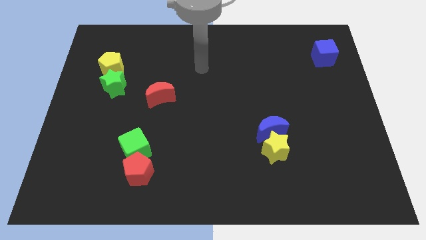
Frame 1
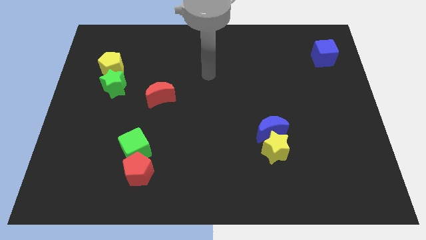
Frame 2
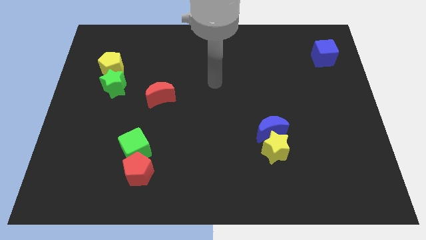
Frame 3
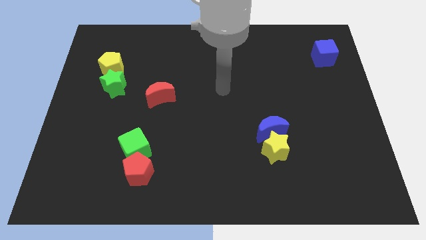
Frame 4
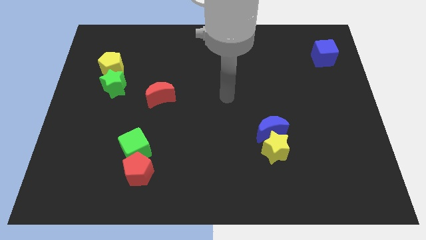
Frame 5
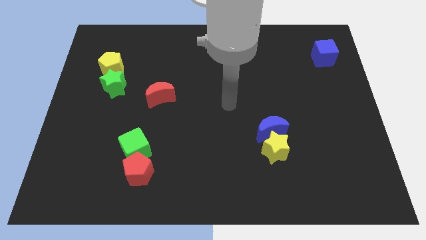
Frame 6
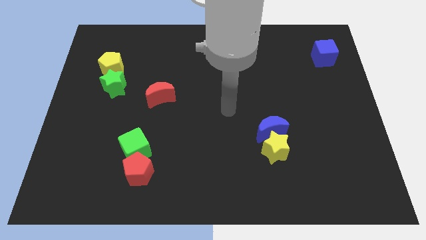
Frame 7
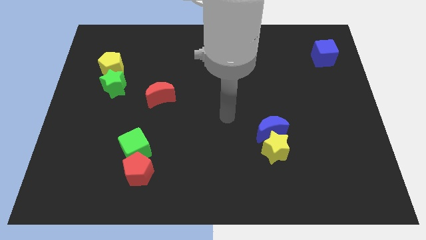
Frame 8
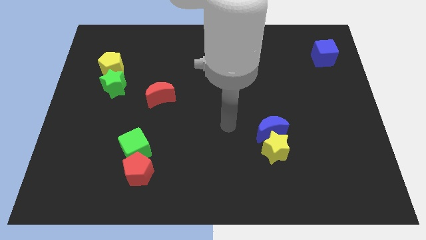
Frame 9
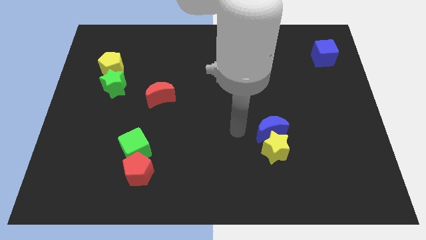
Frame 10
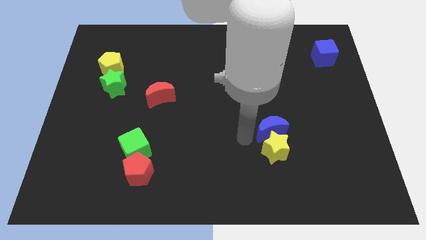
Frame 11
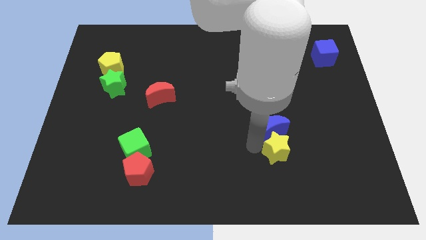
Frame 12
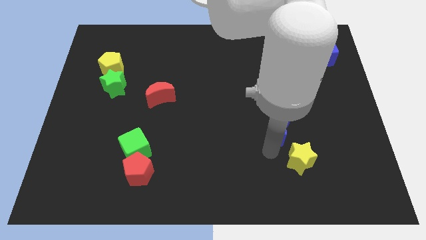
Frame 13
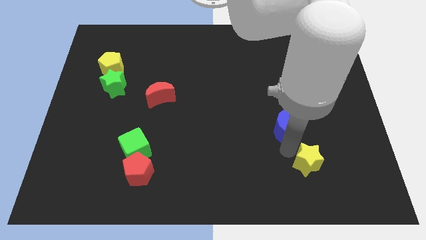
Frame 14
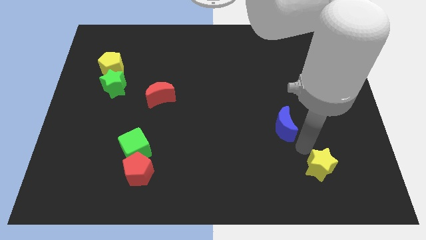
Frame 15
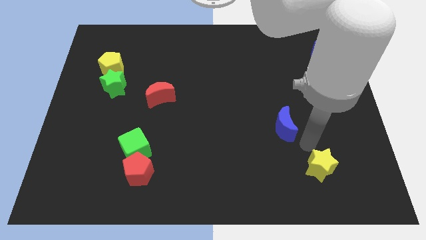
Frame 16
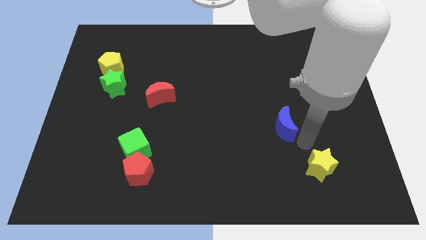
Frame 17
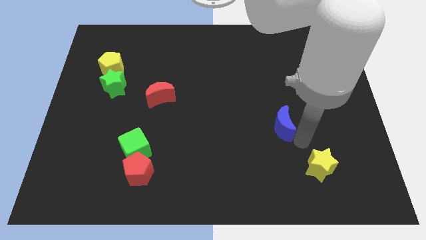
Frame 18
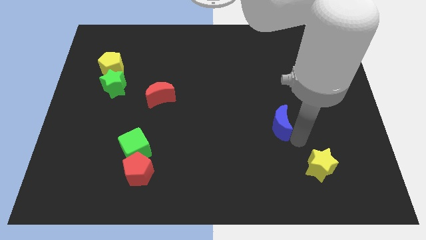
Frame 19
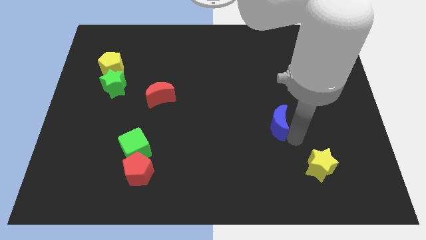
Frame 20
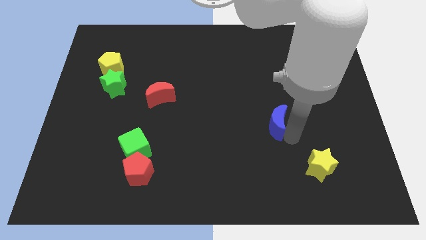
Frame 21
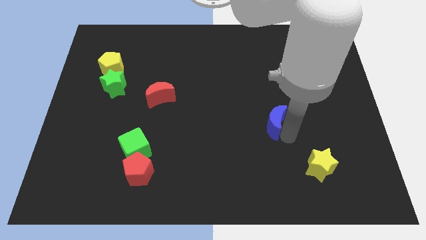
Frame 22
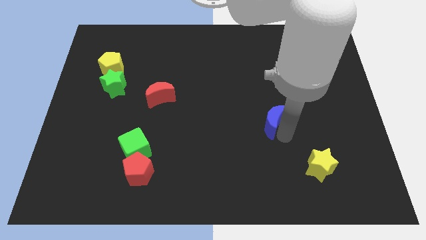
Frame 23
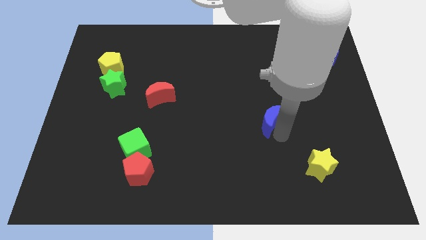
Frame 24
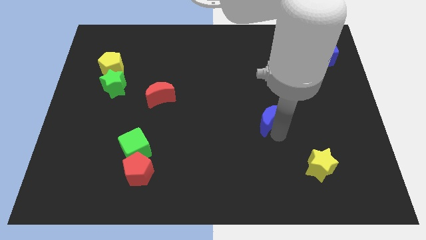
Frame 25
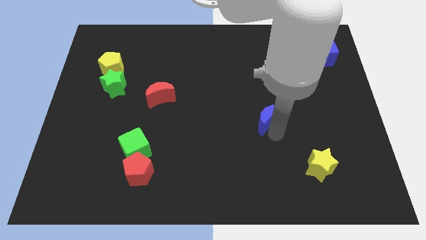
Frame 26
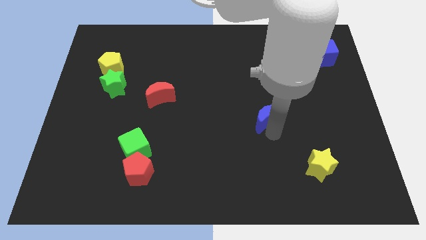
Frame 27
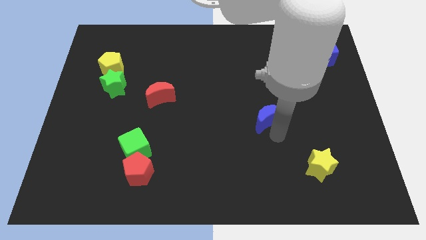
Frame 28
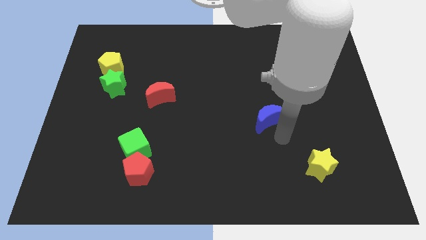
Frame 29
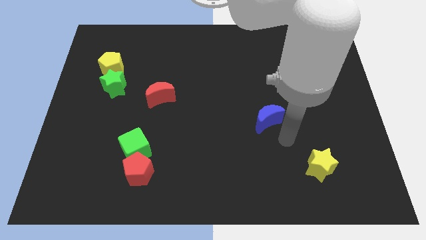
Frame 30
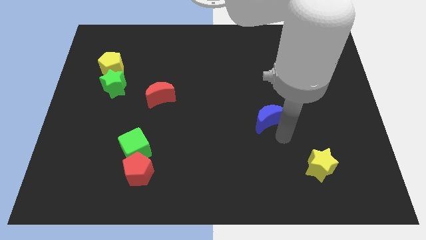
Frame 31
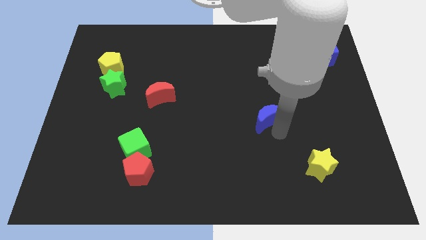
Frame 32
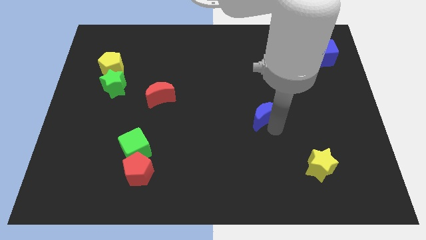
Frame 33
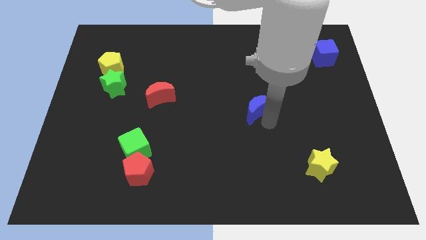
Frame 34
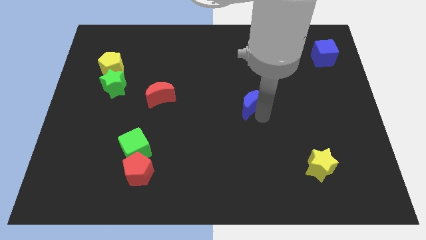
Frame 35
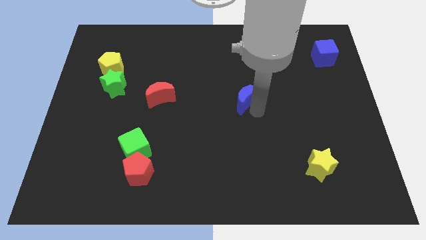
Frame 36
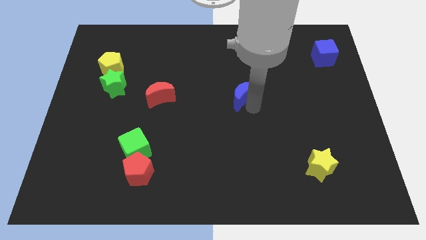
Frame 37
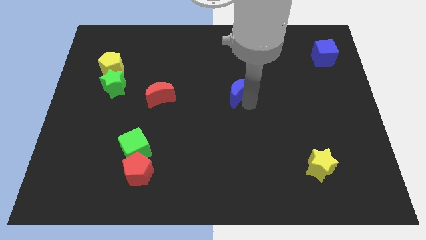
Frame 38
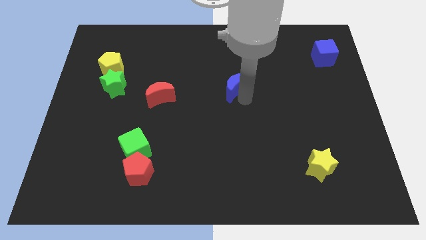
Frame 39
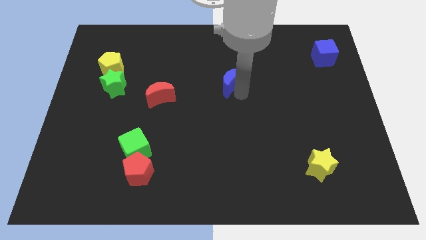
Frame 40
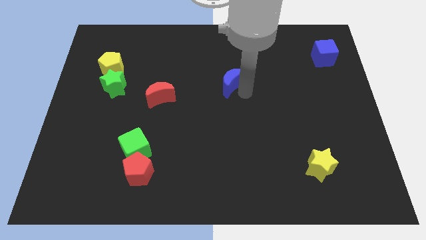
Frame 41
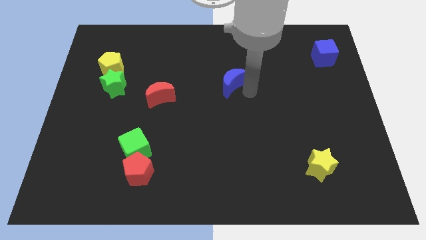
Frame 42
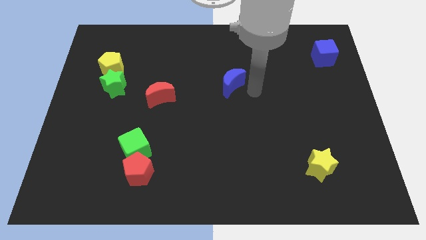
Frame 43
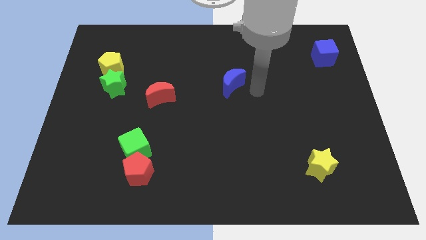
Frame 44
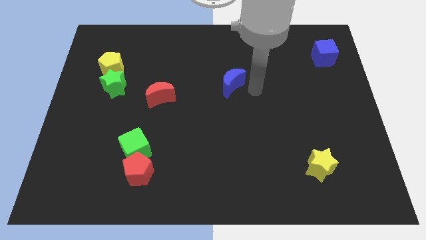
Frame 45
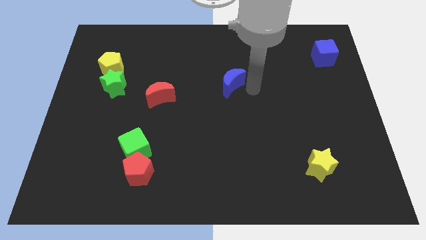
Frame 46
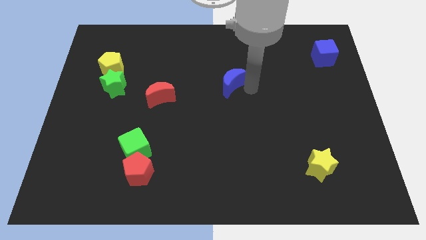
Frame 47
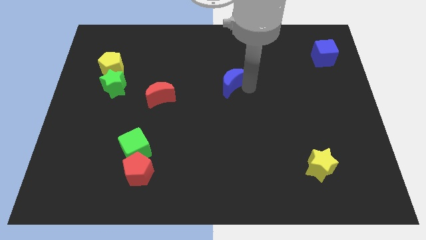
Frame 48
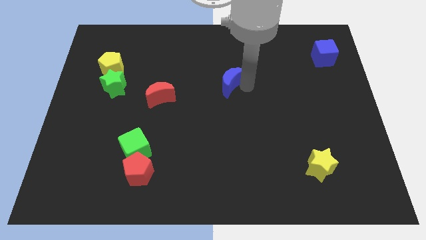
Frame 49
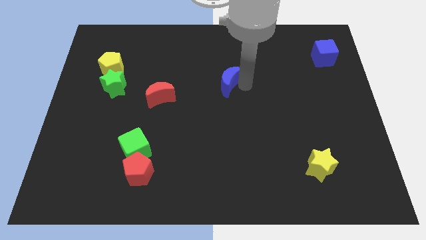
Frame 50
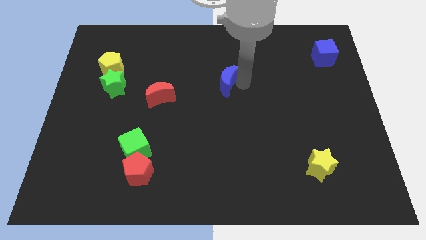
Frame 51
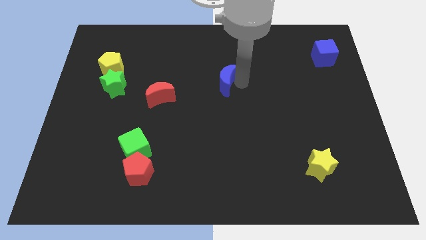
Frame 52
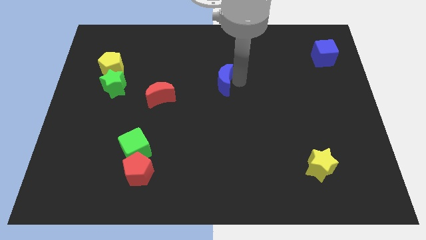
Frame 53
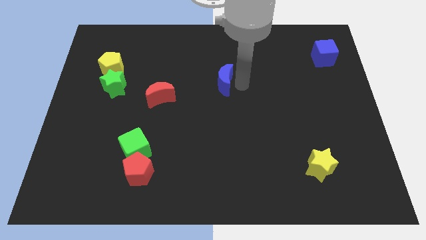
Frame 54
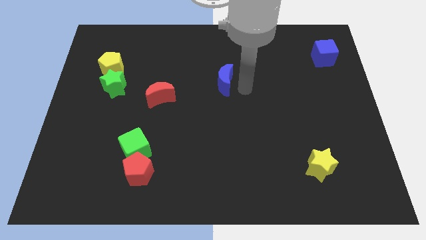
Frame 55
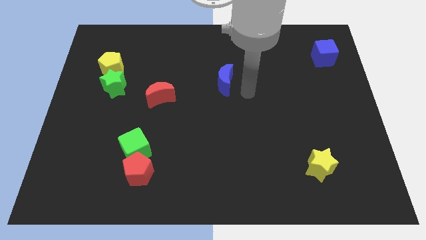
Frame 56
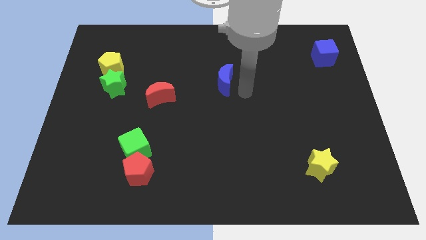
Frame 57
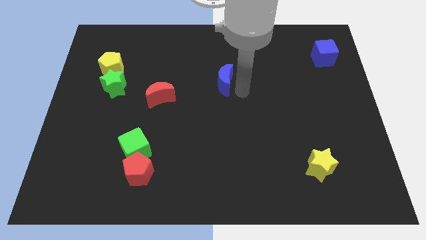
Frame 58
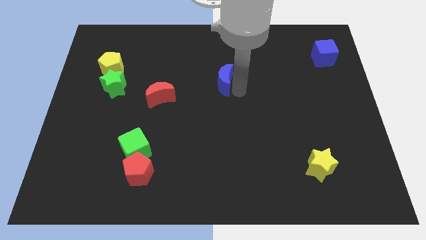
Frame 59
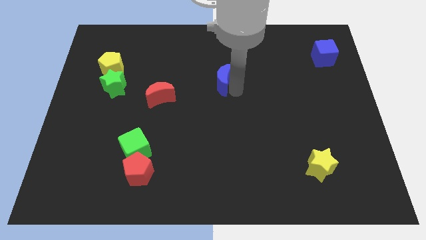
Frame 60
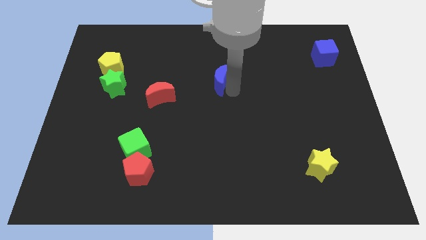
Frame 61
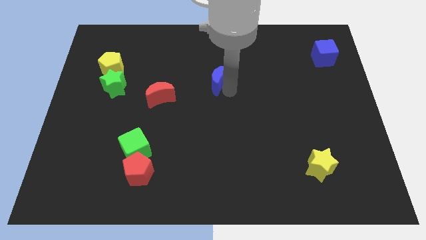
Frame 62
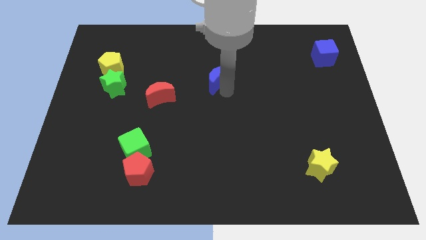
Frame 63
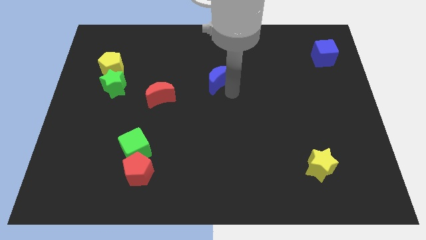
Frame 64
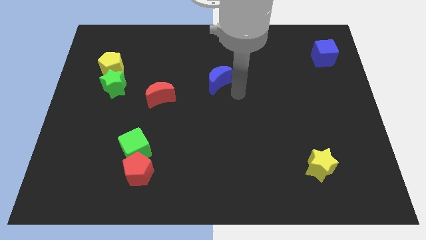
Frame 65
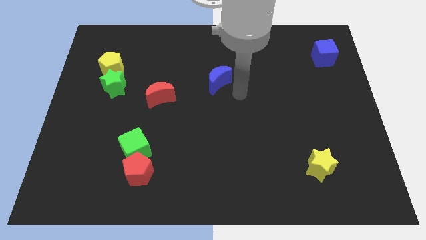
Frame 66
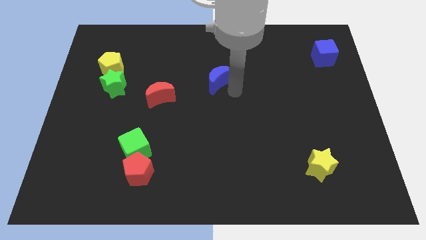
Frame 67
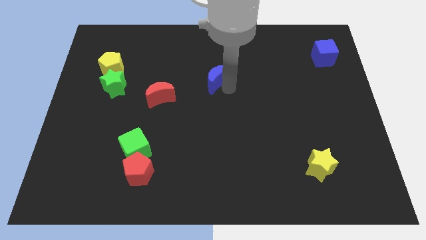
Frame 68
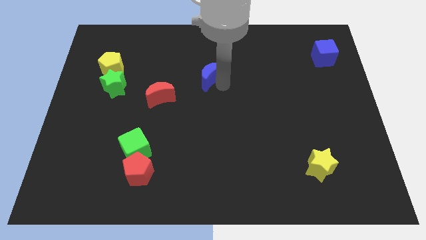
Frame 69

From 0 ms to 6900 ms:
slide the blue moon upwards and left diagonally

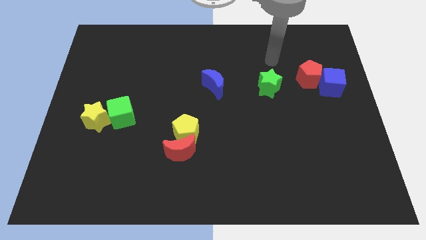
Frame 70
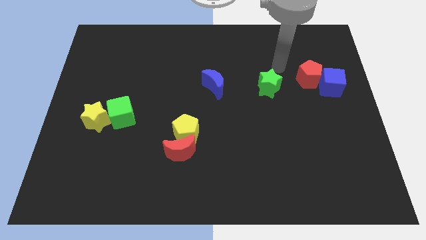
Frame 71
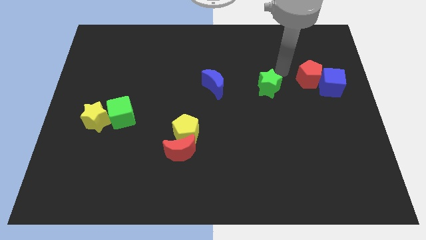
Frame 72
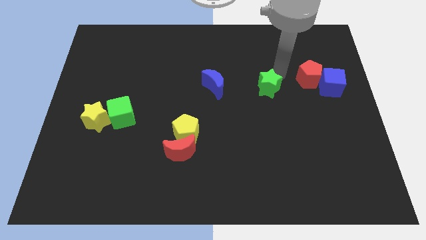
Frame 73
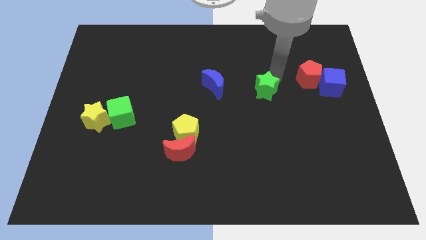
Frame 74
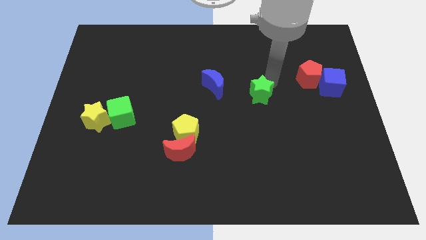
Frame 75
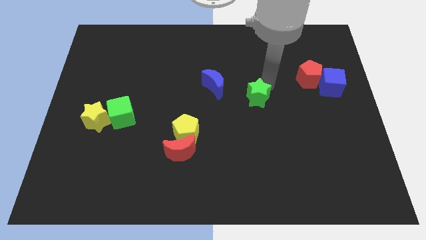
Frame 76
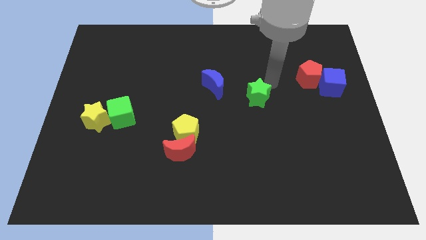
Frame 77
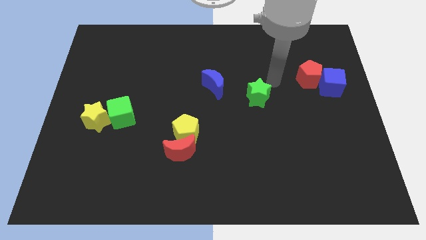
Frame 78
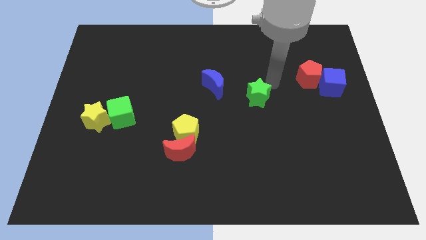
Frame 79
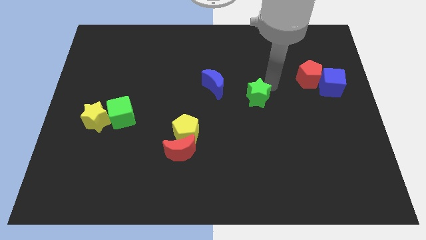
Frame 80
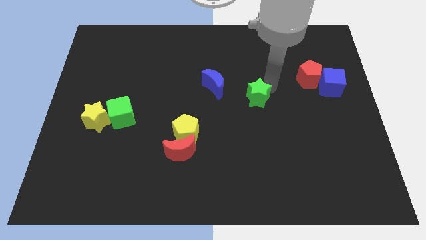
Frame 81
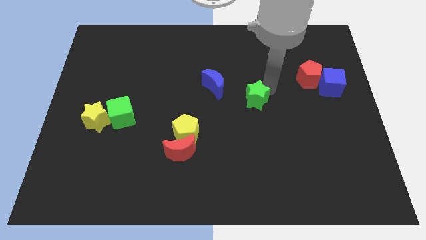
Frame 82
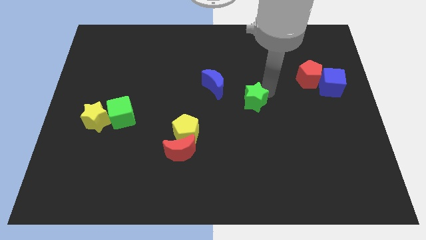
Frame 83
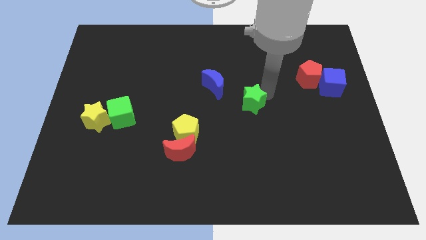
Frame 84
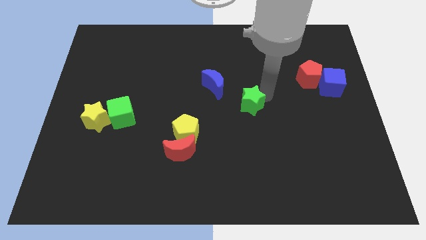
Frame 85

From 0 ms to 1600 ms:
slightly move the green star down and then to the left
